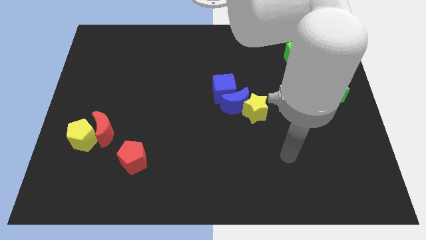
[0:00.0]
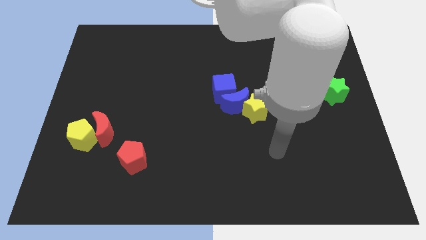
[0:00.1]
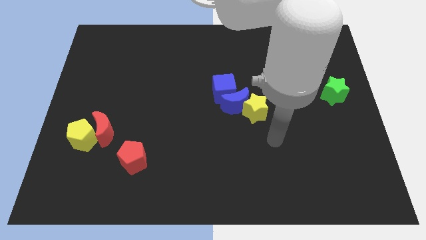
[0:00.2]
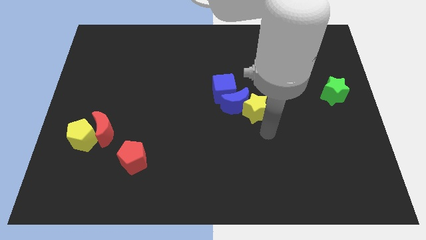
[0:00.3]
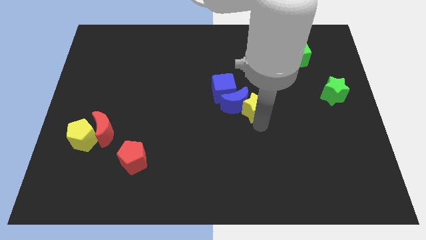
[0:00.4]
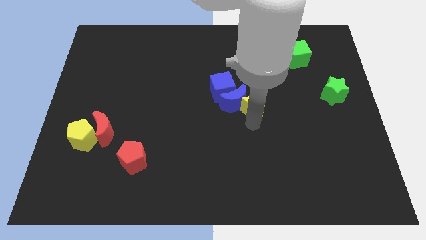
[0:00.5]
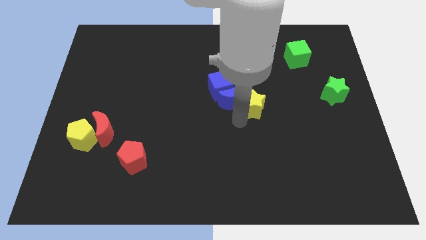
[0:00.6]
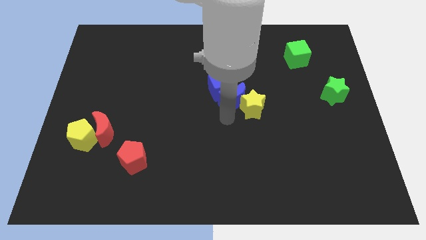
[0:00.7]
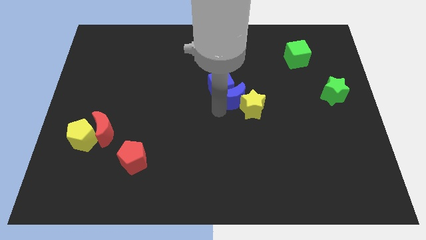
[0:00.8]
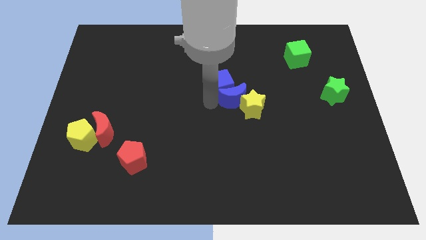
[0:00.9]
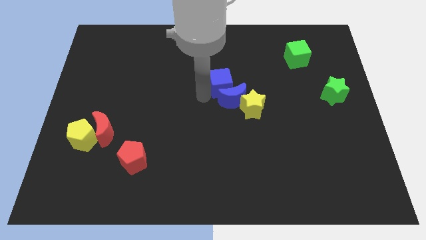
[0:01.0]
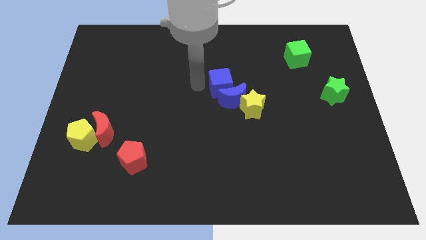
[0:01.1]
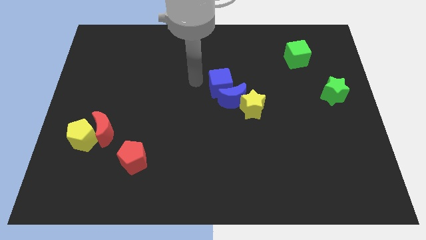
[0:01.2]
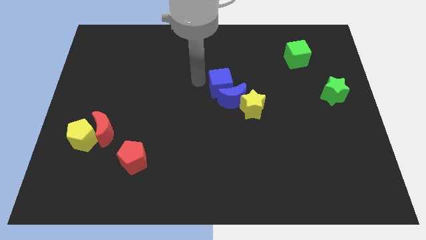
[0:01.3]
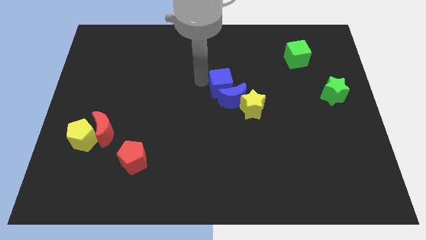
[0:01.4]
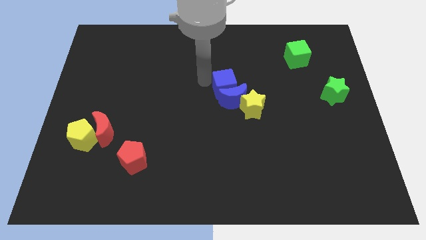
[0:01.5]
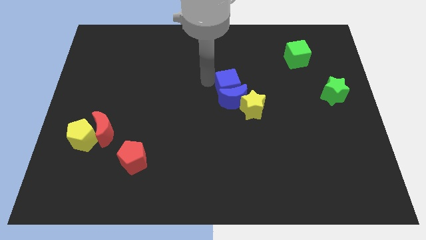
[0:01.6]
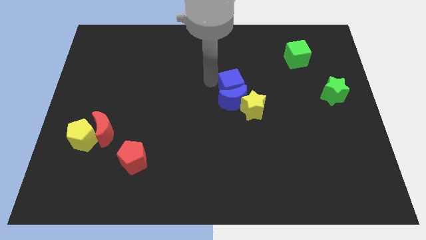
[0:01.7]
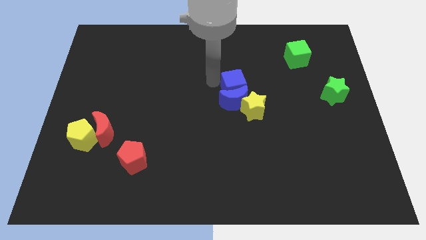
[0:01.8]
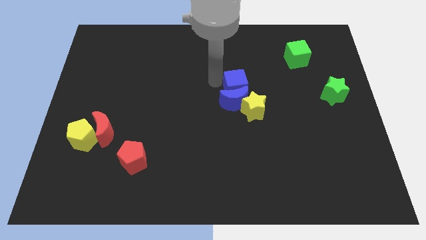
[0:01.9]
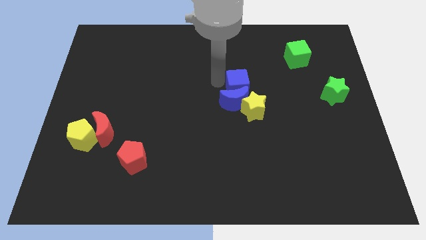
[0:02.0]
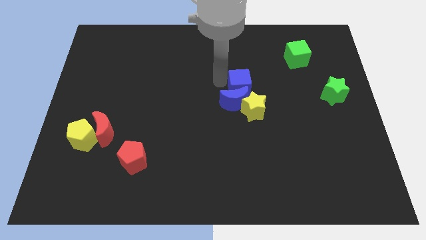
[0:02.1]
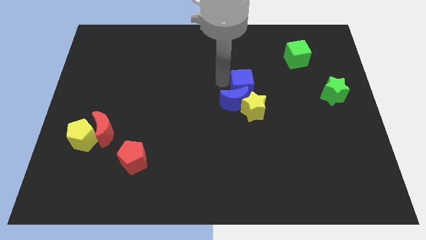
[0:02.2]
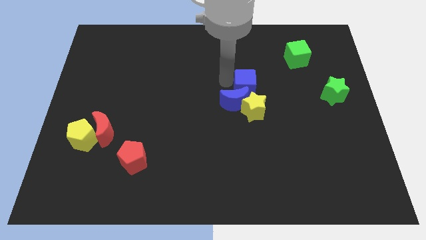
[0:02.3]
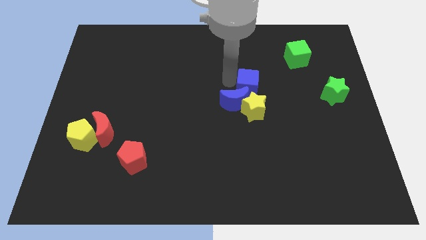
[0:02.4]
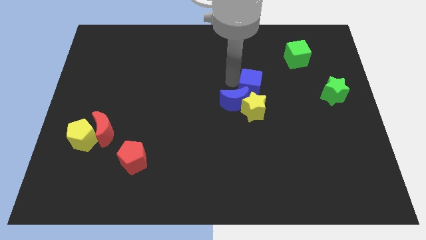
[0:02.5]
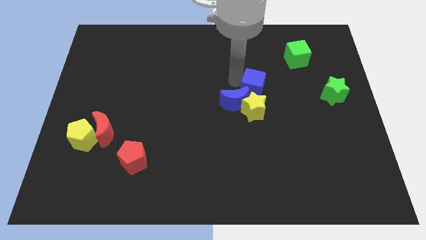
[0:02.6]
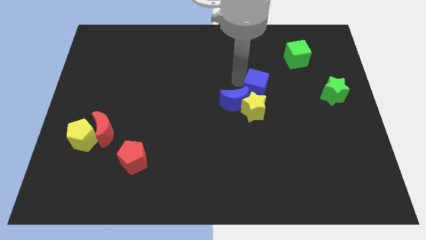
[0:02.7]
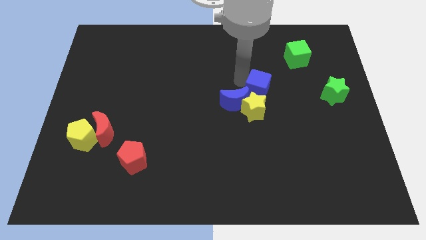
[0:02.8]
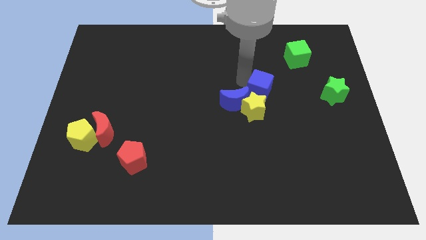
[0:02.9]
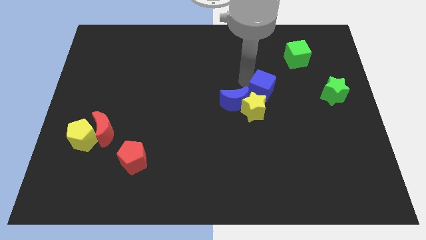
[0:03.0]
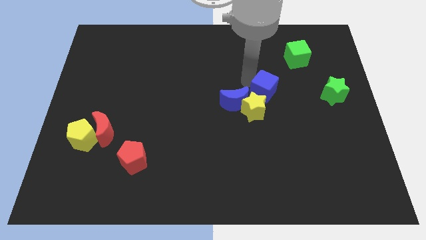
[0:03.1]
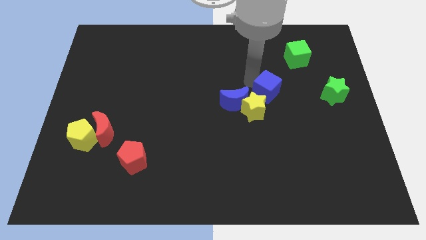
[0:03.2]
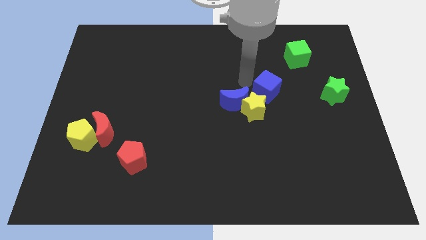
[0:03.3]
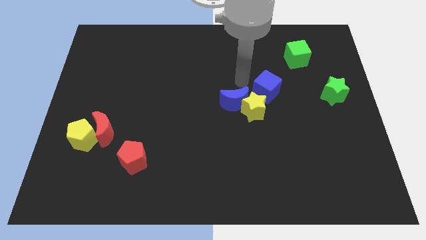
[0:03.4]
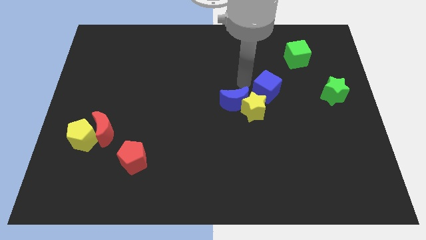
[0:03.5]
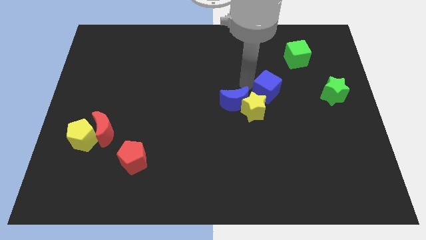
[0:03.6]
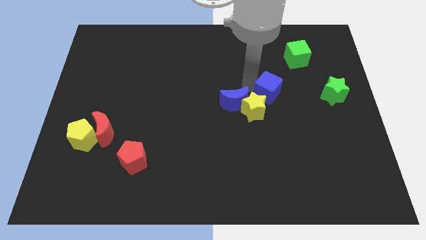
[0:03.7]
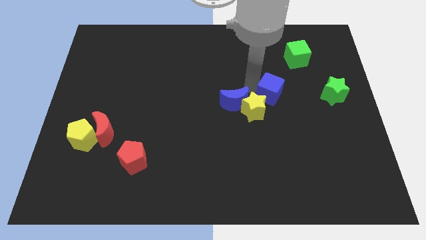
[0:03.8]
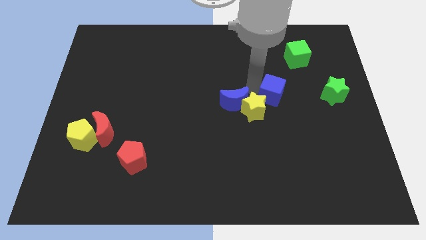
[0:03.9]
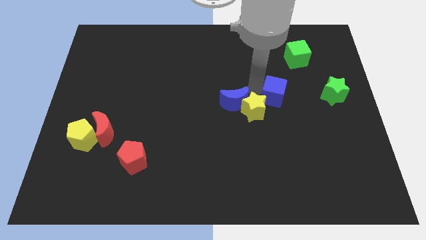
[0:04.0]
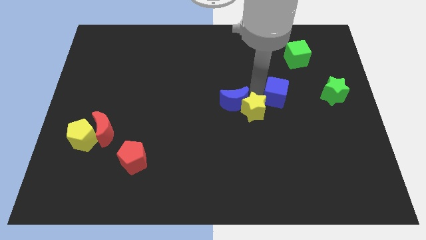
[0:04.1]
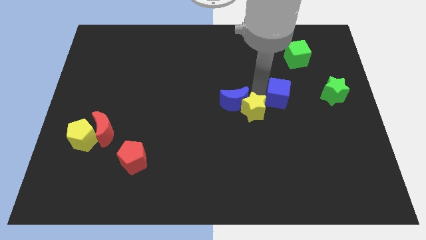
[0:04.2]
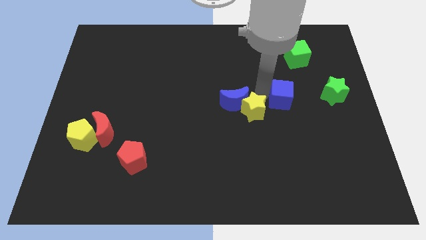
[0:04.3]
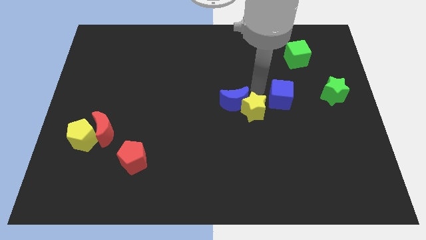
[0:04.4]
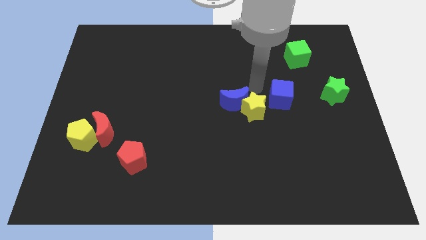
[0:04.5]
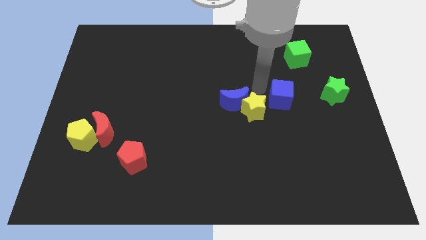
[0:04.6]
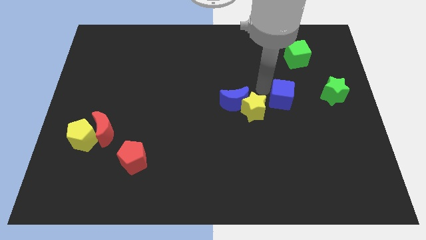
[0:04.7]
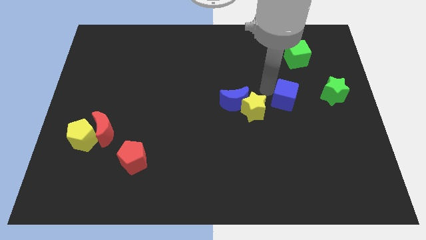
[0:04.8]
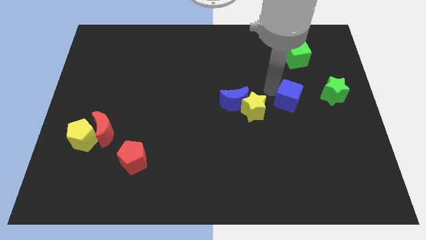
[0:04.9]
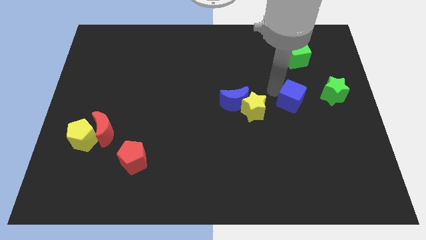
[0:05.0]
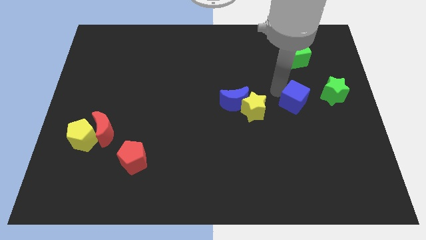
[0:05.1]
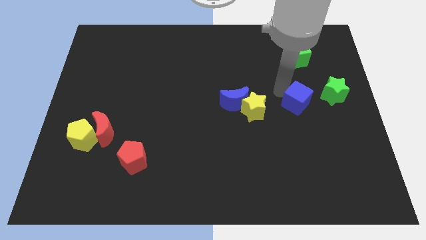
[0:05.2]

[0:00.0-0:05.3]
move the blue cube to the bottom left of the green star

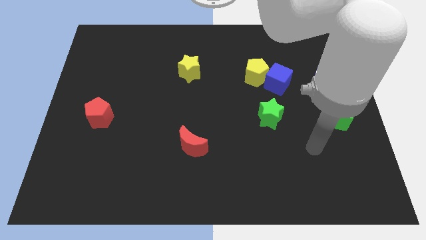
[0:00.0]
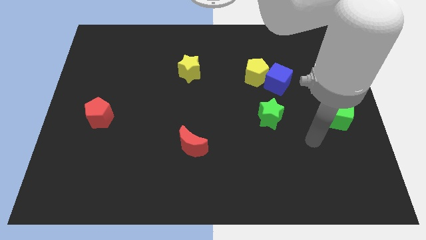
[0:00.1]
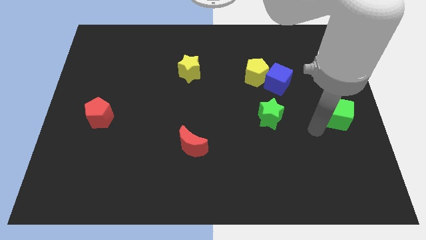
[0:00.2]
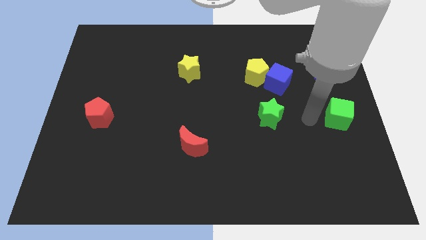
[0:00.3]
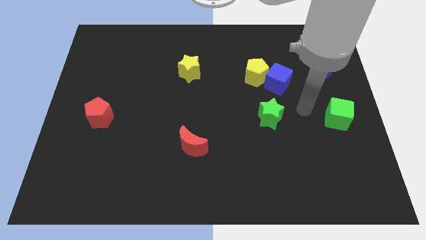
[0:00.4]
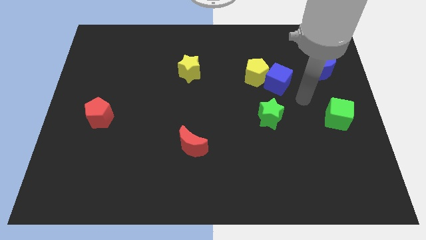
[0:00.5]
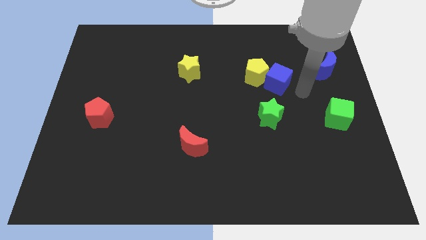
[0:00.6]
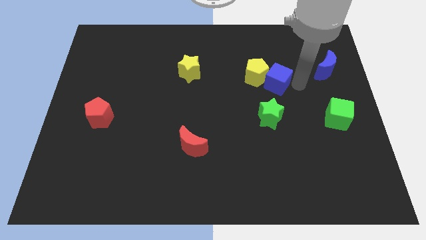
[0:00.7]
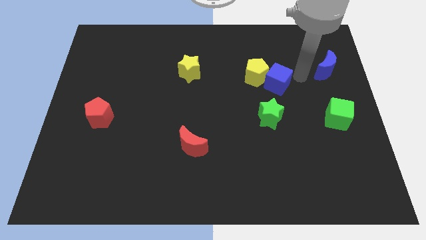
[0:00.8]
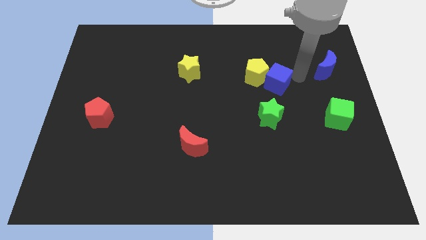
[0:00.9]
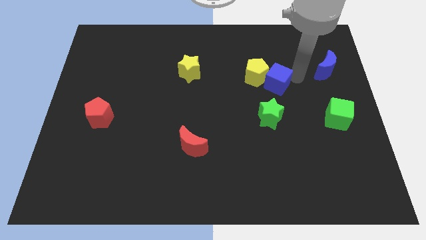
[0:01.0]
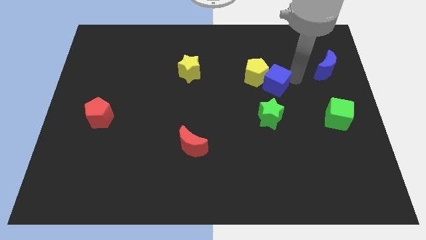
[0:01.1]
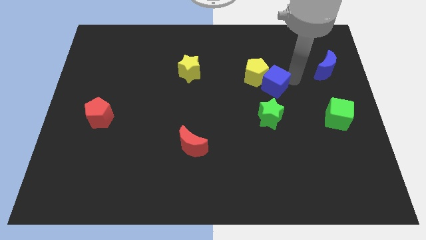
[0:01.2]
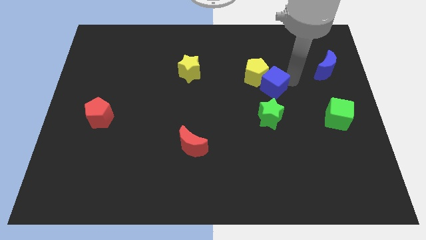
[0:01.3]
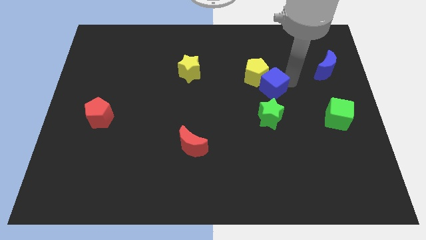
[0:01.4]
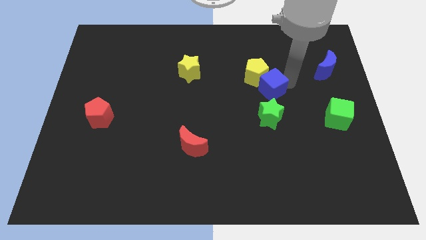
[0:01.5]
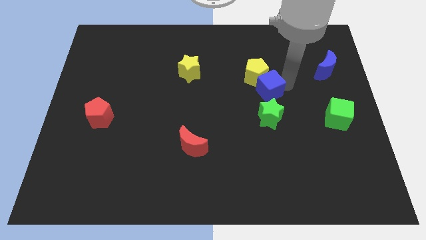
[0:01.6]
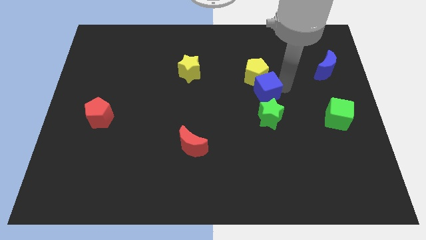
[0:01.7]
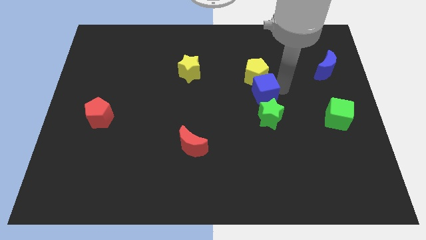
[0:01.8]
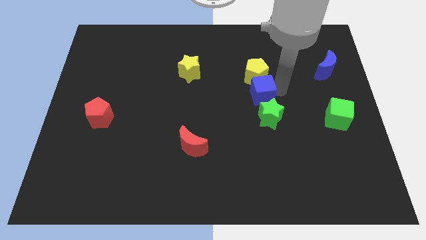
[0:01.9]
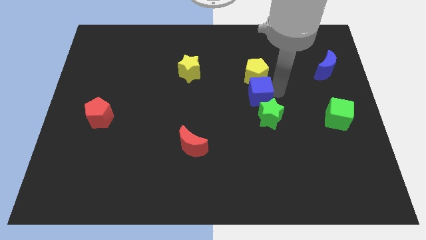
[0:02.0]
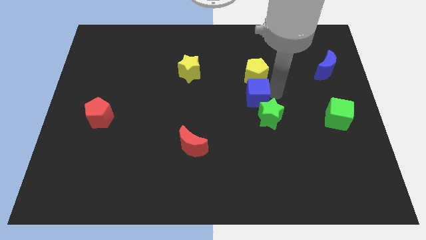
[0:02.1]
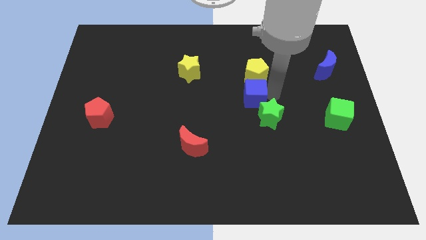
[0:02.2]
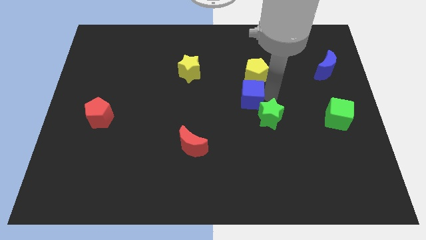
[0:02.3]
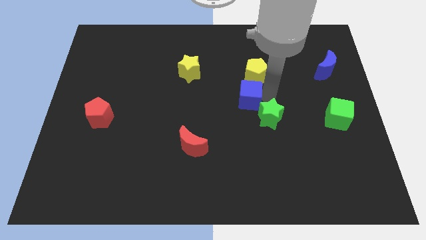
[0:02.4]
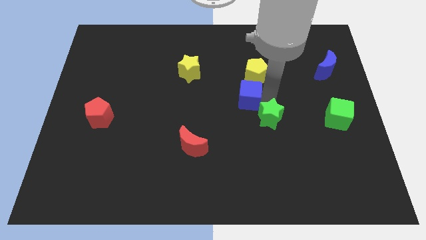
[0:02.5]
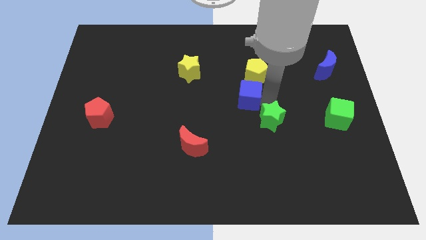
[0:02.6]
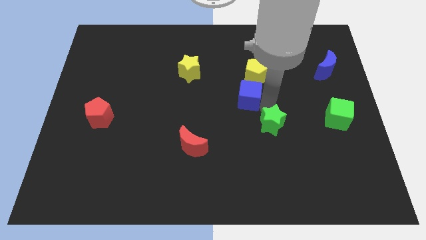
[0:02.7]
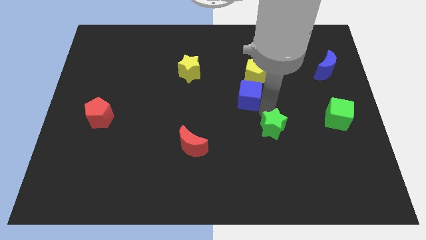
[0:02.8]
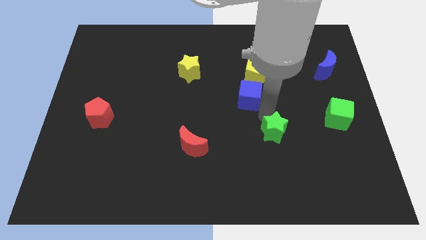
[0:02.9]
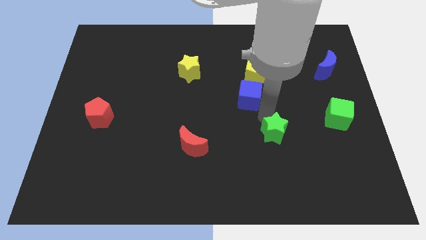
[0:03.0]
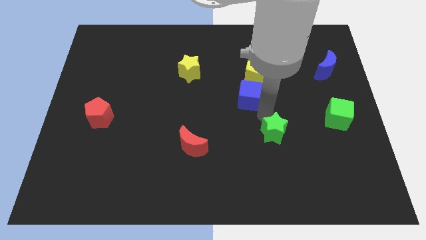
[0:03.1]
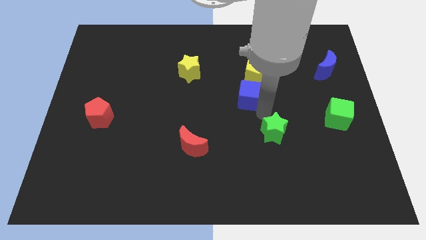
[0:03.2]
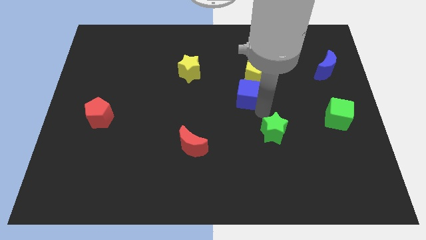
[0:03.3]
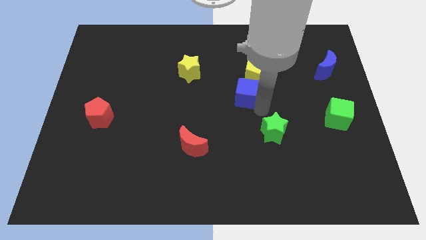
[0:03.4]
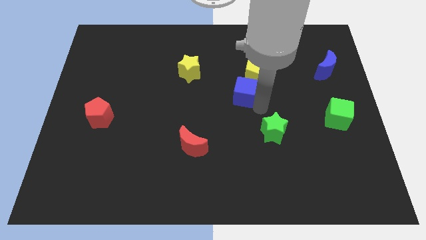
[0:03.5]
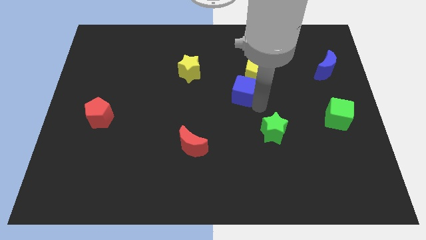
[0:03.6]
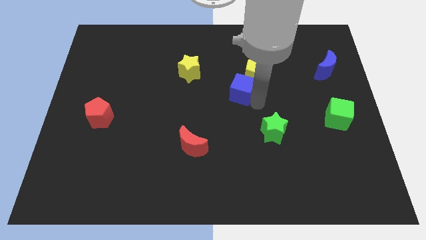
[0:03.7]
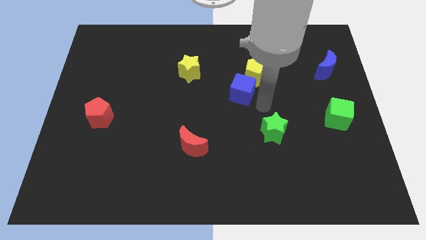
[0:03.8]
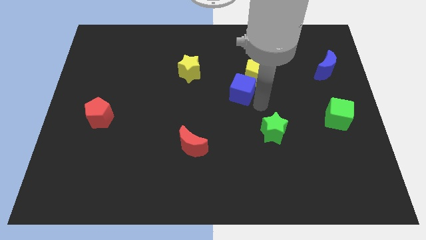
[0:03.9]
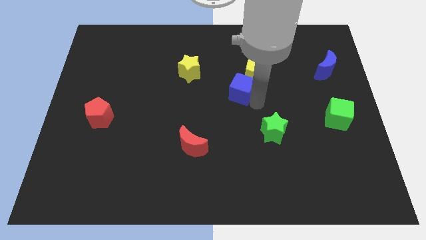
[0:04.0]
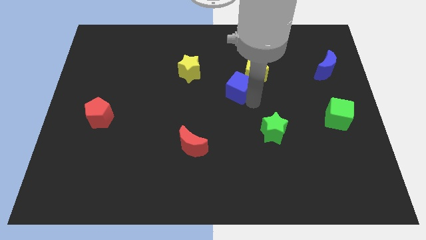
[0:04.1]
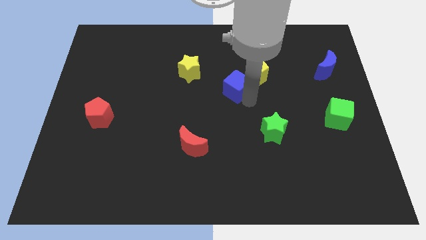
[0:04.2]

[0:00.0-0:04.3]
put the blue cube just left of the yellow pentagon
